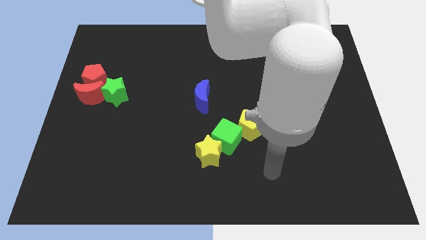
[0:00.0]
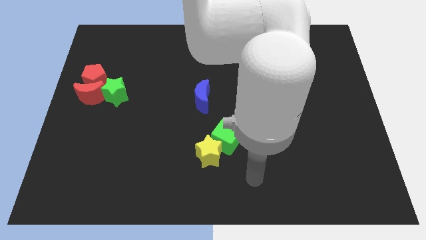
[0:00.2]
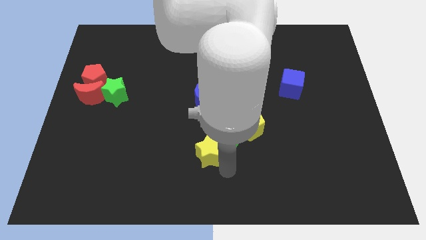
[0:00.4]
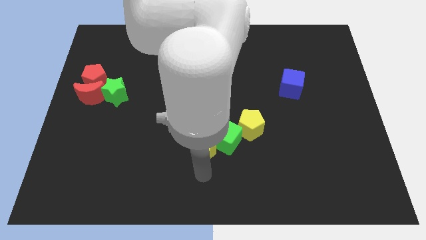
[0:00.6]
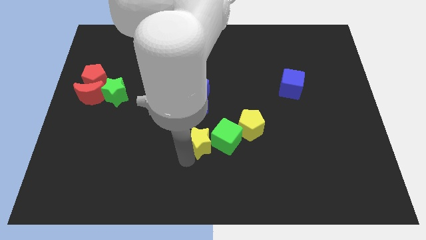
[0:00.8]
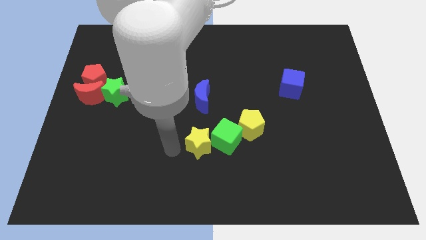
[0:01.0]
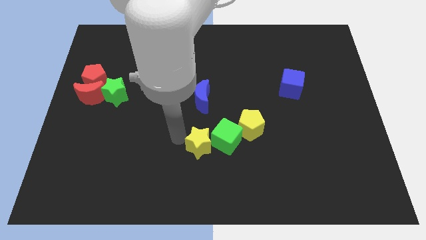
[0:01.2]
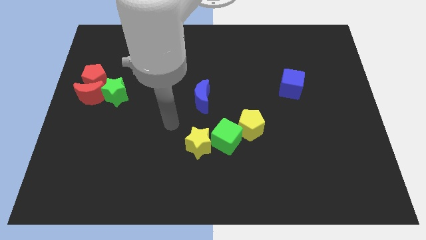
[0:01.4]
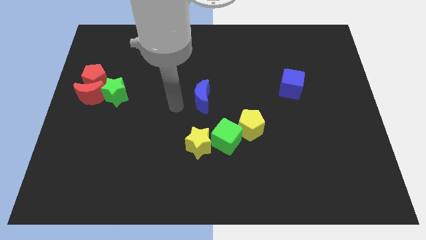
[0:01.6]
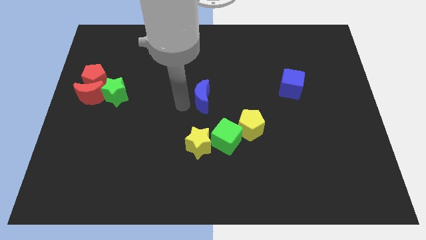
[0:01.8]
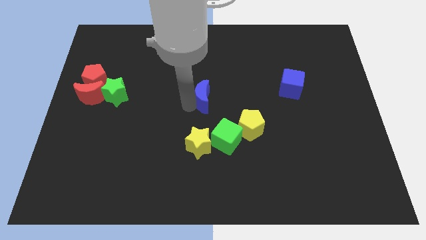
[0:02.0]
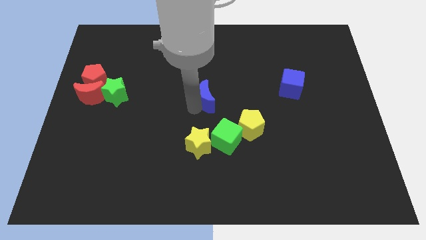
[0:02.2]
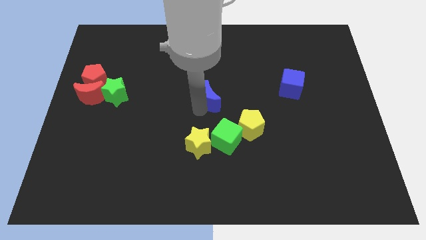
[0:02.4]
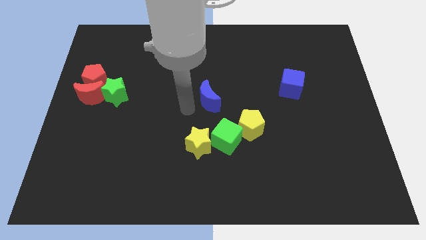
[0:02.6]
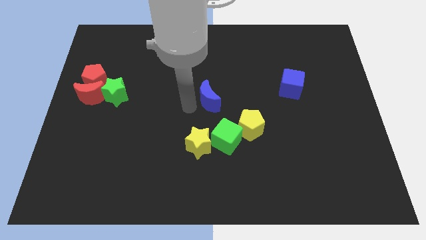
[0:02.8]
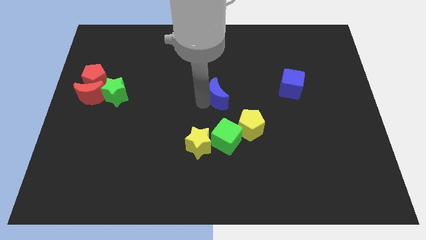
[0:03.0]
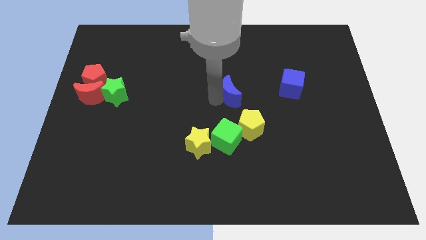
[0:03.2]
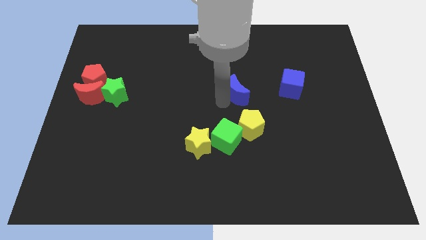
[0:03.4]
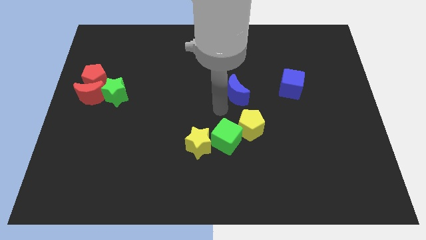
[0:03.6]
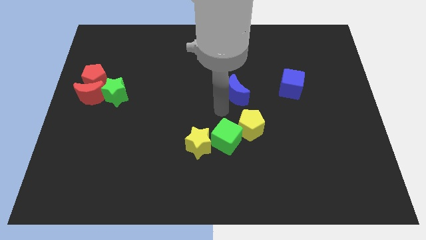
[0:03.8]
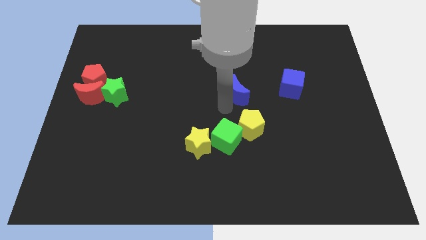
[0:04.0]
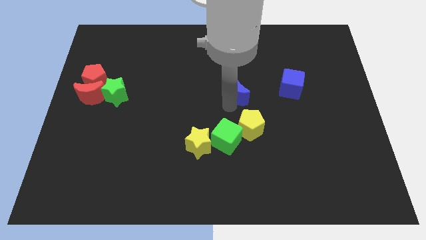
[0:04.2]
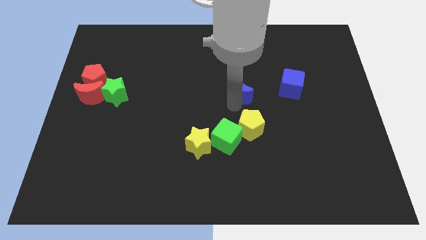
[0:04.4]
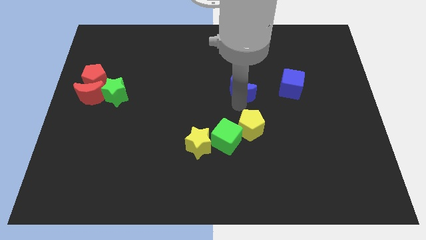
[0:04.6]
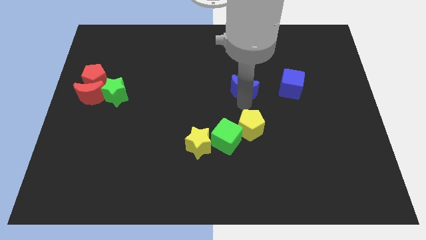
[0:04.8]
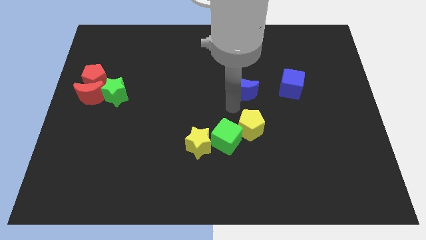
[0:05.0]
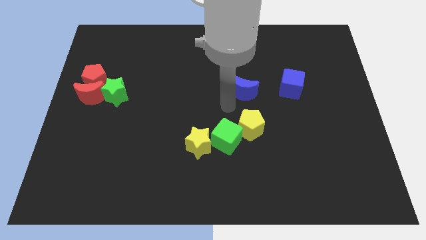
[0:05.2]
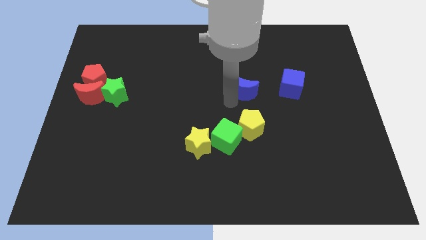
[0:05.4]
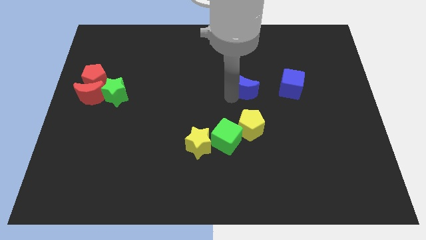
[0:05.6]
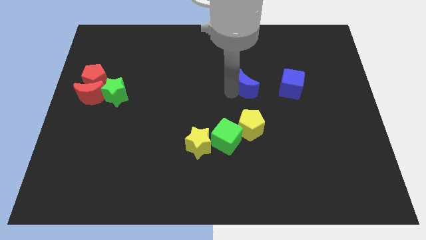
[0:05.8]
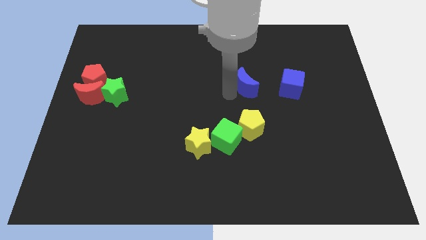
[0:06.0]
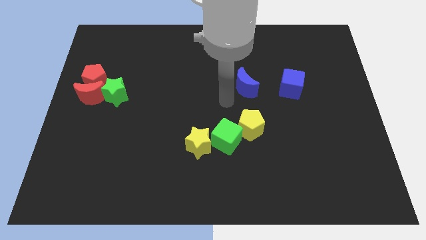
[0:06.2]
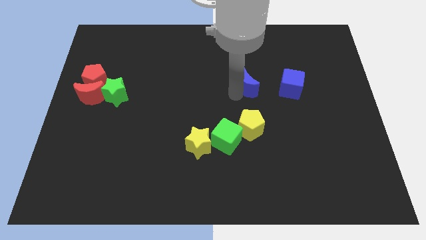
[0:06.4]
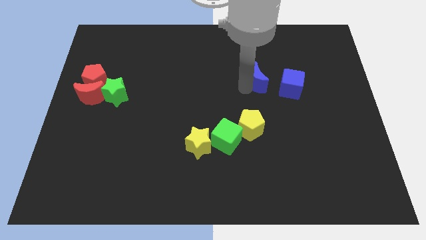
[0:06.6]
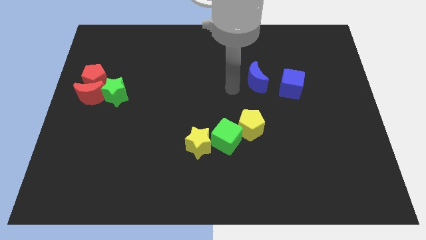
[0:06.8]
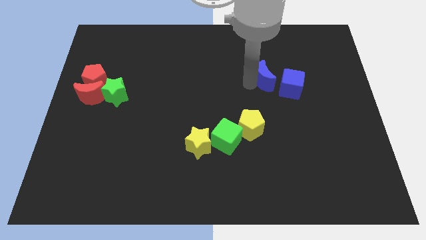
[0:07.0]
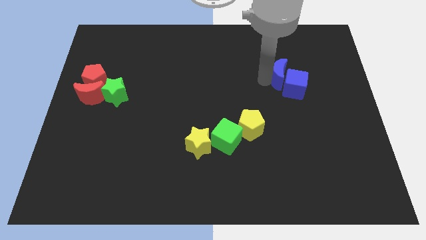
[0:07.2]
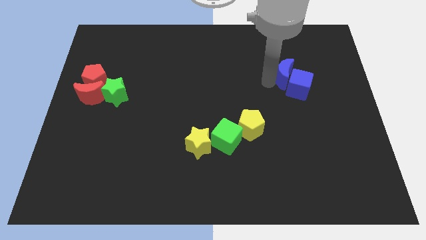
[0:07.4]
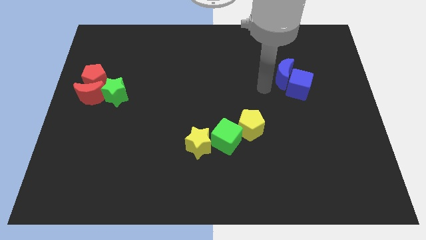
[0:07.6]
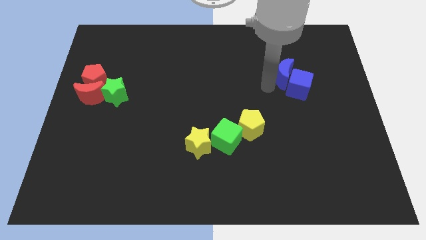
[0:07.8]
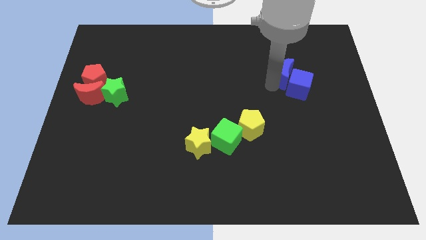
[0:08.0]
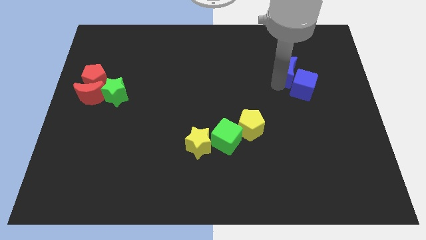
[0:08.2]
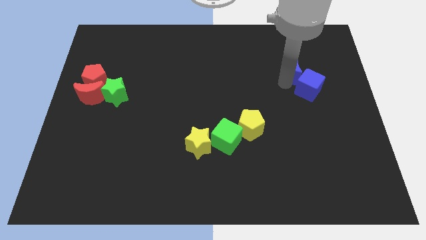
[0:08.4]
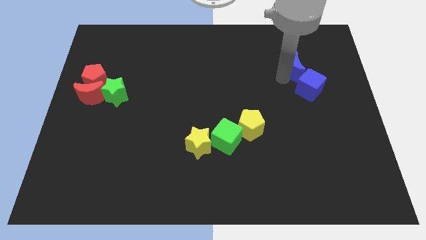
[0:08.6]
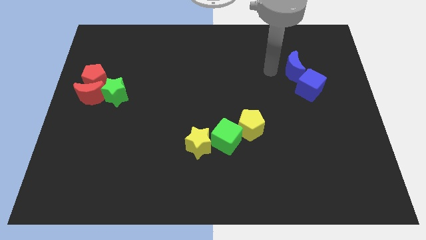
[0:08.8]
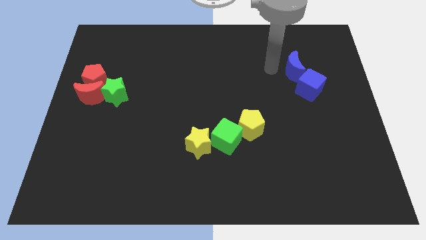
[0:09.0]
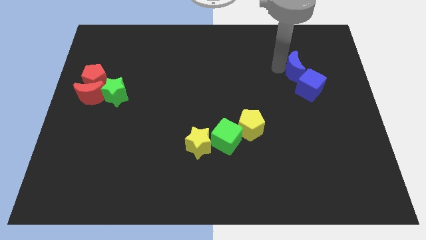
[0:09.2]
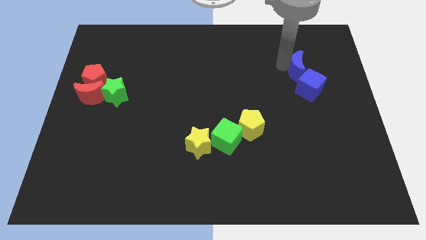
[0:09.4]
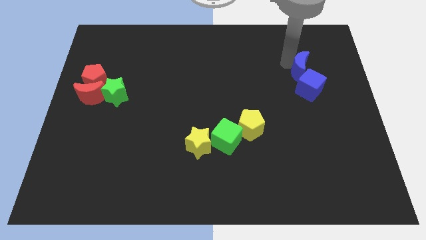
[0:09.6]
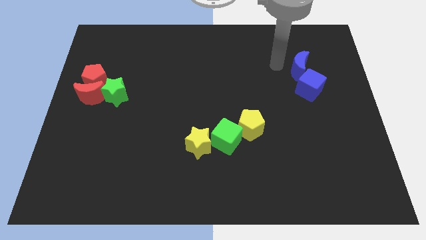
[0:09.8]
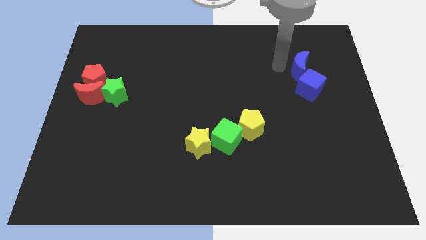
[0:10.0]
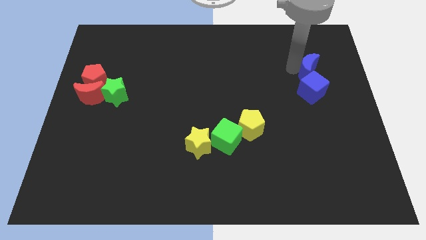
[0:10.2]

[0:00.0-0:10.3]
slide the blue moon diagonally up and to the right of the blue cube

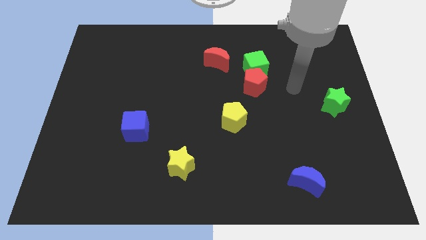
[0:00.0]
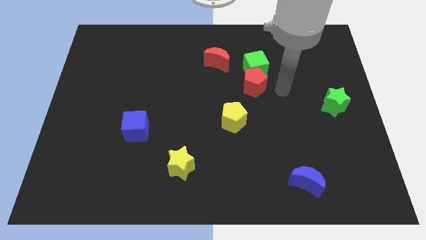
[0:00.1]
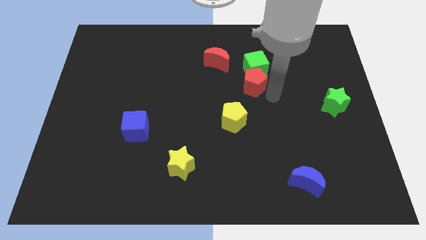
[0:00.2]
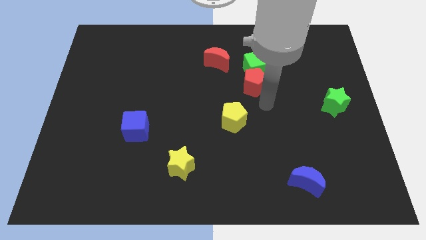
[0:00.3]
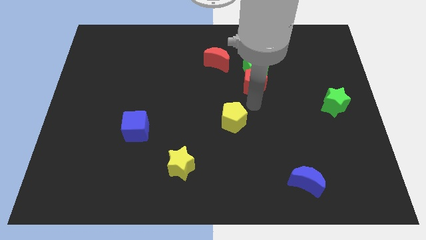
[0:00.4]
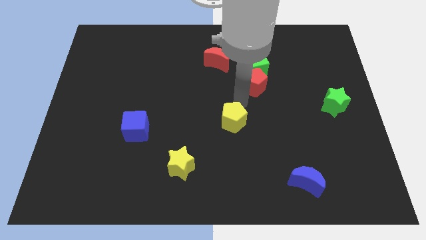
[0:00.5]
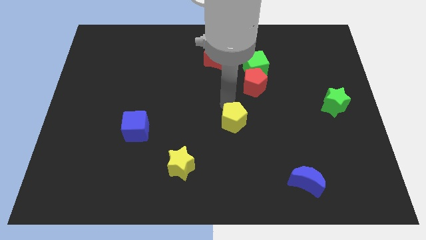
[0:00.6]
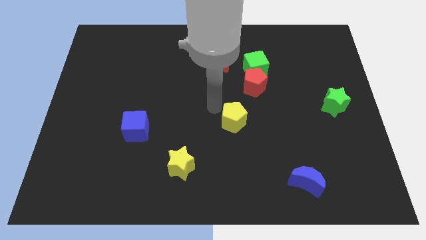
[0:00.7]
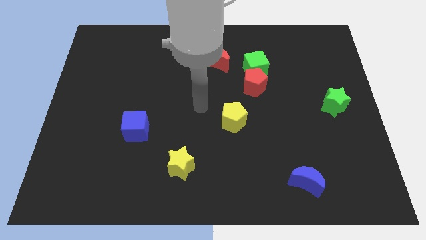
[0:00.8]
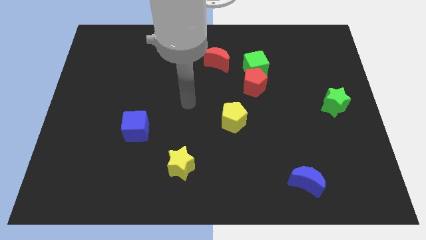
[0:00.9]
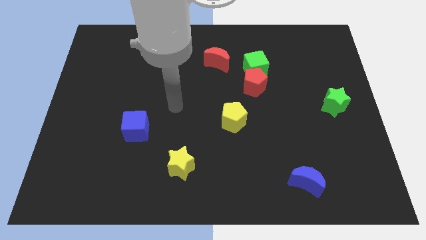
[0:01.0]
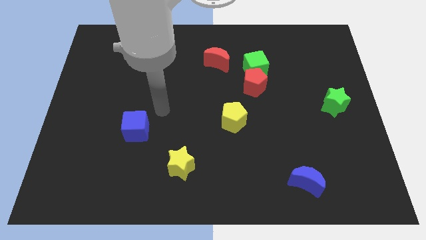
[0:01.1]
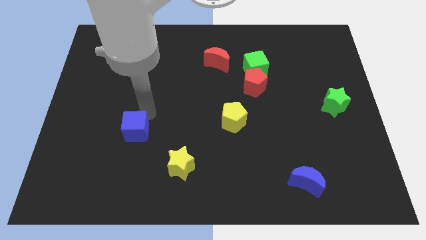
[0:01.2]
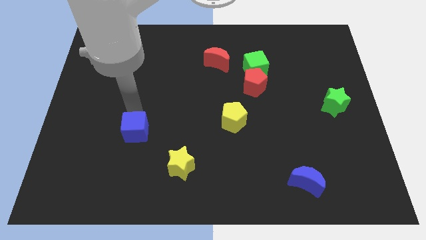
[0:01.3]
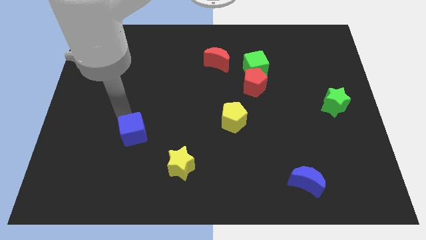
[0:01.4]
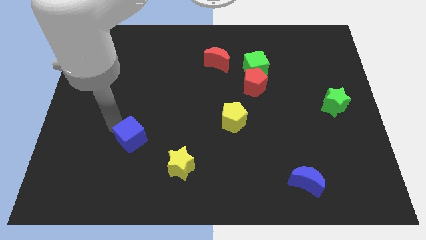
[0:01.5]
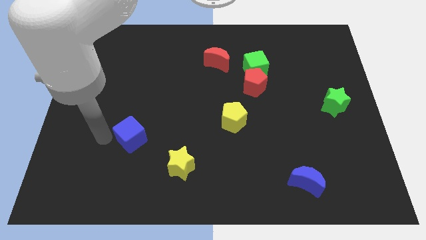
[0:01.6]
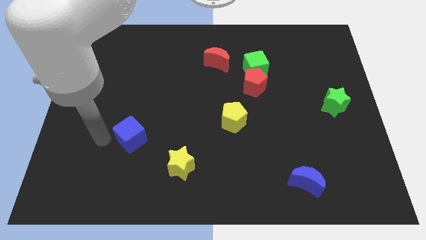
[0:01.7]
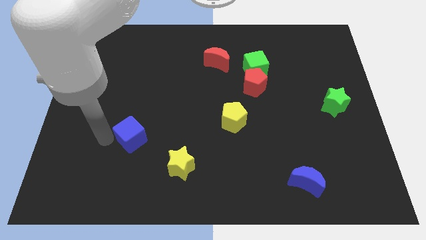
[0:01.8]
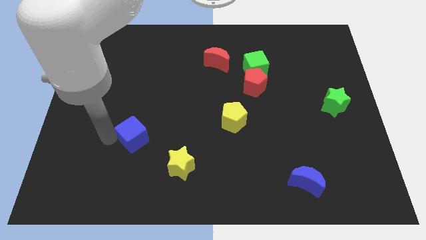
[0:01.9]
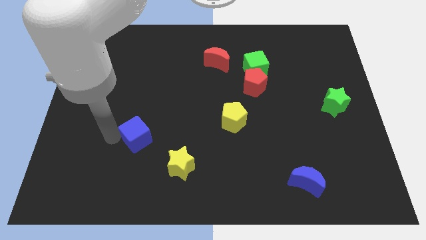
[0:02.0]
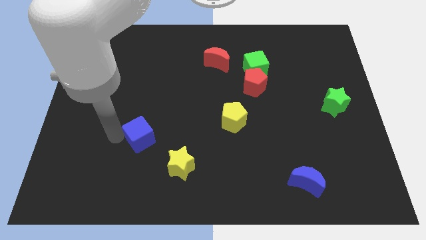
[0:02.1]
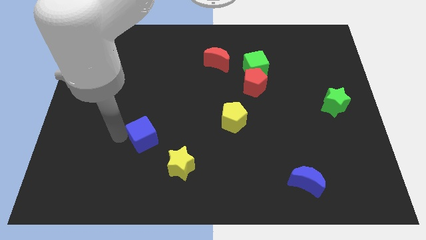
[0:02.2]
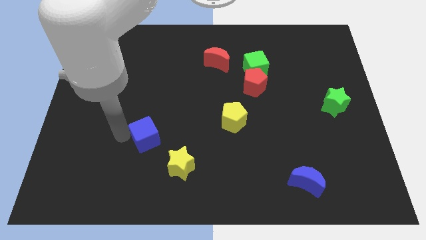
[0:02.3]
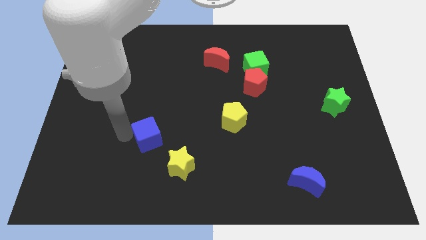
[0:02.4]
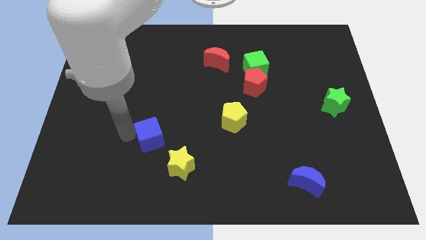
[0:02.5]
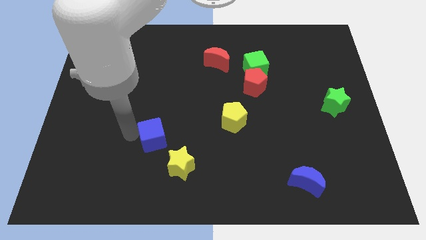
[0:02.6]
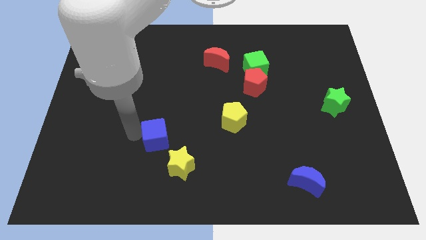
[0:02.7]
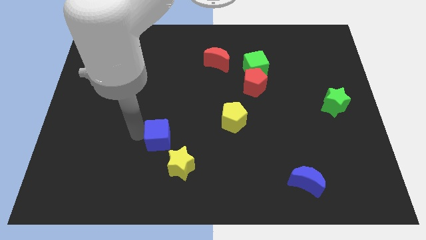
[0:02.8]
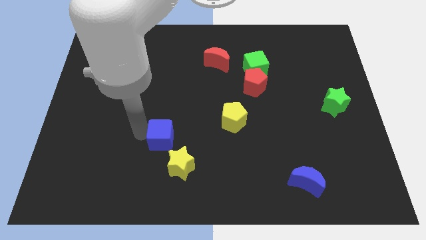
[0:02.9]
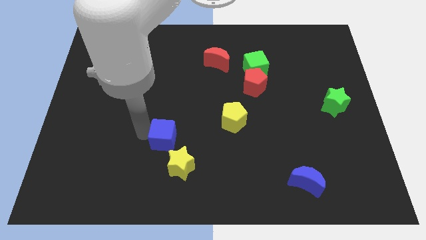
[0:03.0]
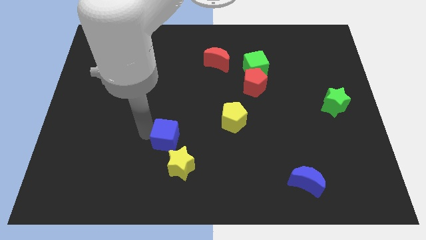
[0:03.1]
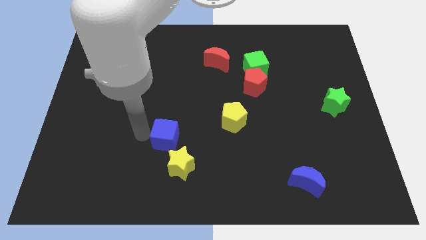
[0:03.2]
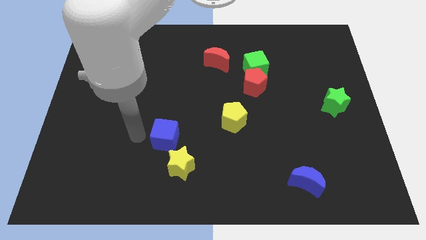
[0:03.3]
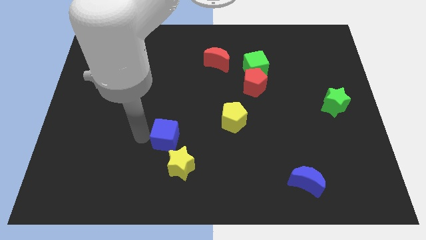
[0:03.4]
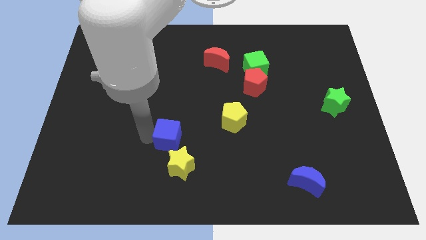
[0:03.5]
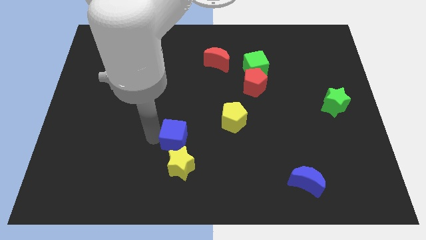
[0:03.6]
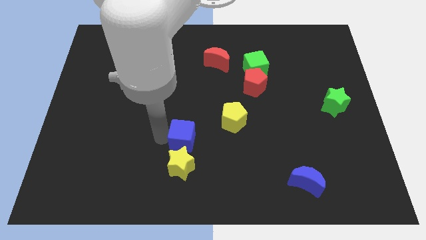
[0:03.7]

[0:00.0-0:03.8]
push the blue cube diagonally up and to the right of the yellow star
